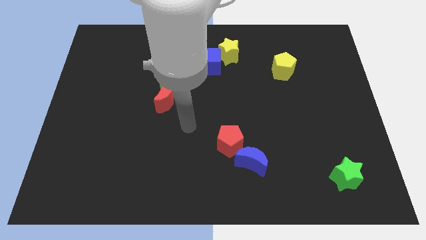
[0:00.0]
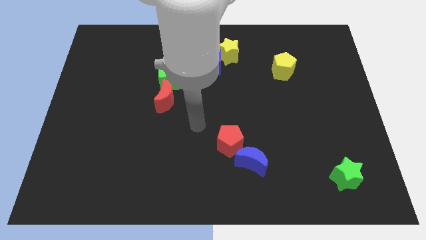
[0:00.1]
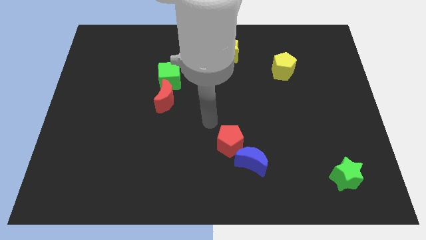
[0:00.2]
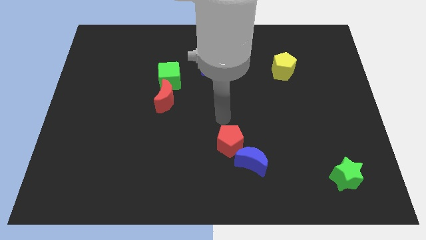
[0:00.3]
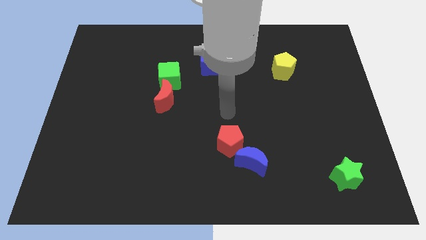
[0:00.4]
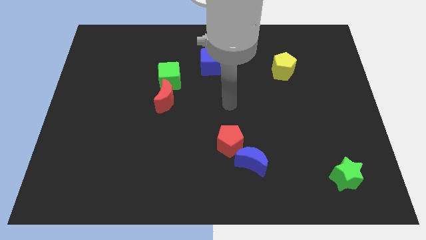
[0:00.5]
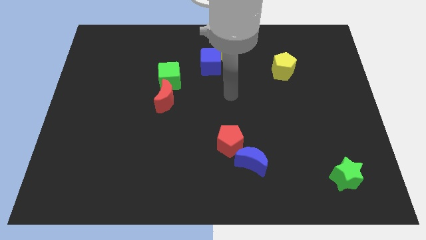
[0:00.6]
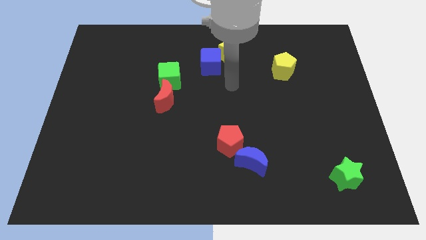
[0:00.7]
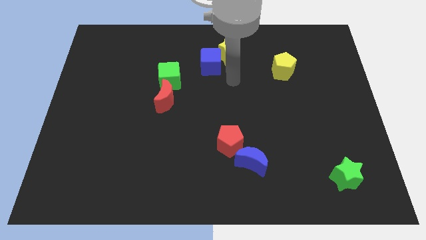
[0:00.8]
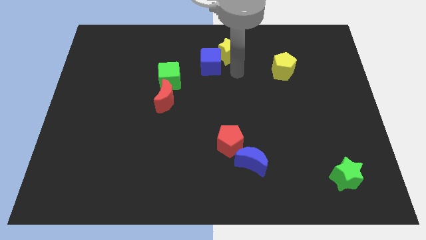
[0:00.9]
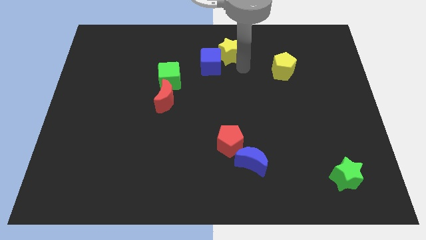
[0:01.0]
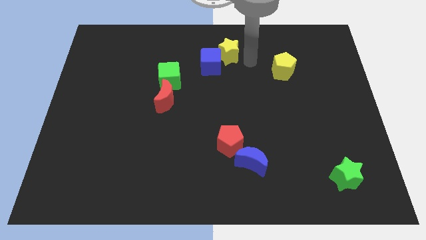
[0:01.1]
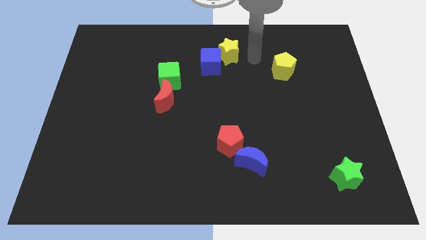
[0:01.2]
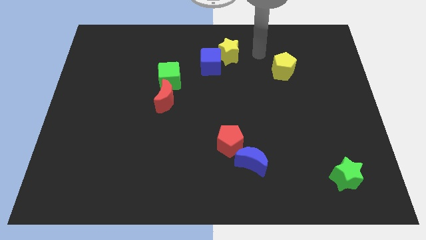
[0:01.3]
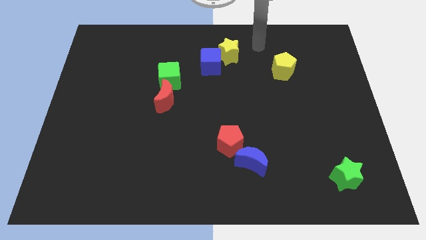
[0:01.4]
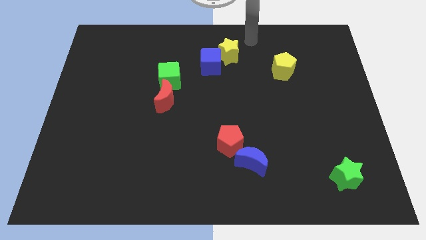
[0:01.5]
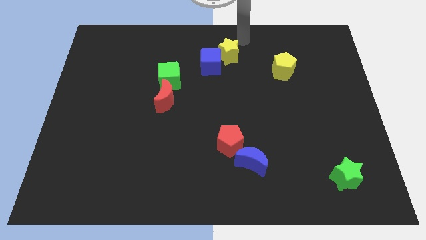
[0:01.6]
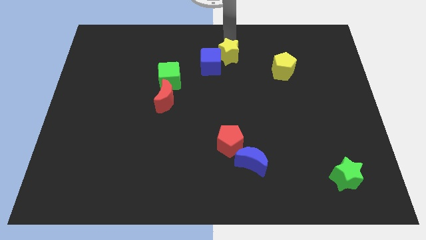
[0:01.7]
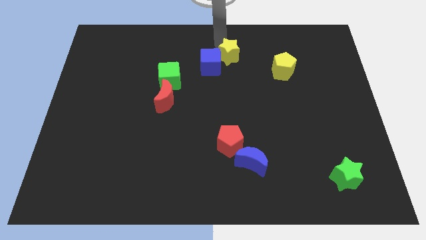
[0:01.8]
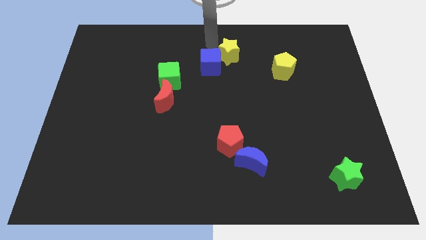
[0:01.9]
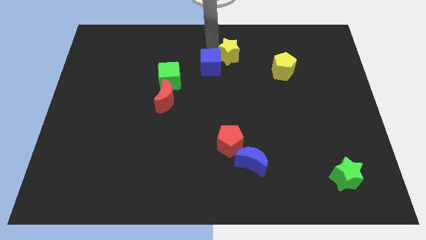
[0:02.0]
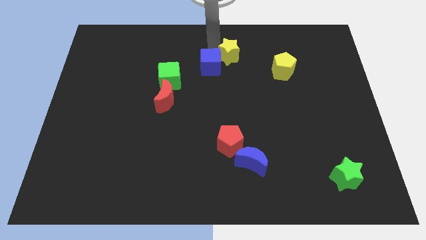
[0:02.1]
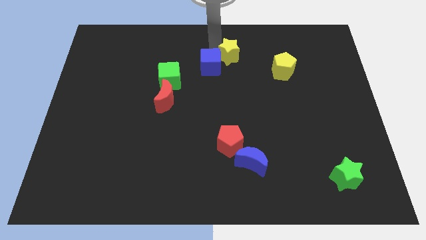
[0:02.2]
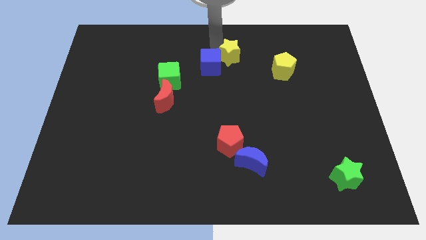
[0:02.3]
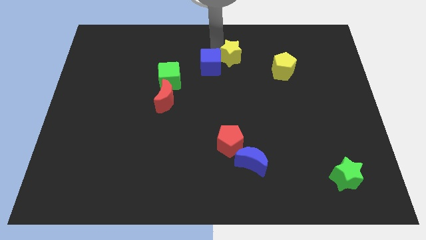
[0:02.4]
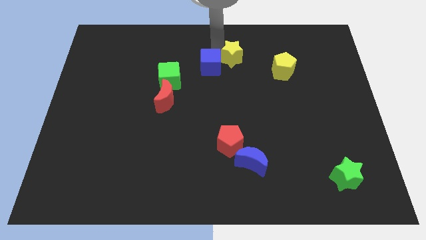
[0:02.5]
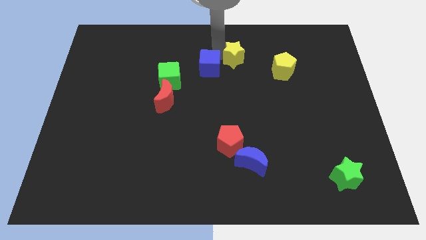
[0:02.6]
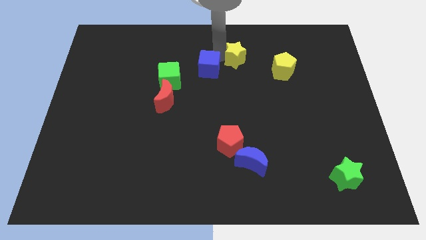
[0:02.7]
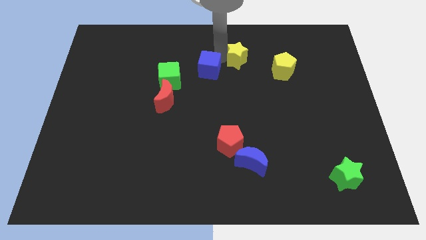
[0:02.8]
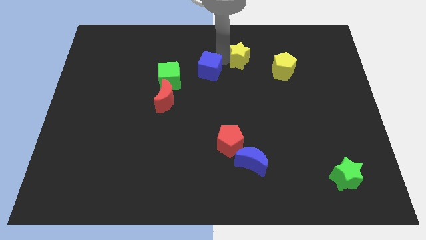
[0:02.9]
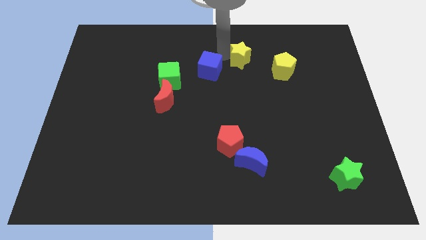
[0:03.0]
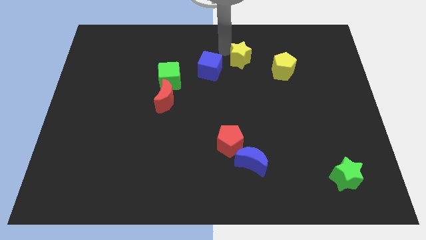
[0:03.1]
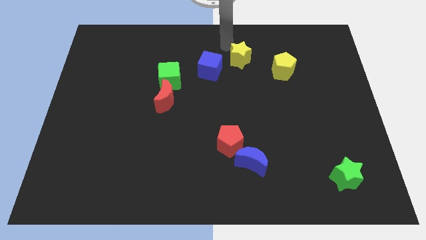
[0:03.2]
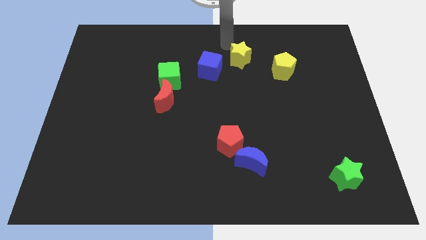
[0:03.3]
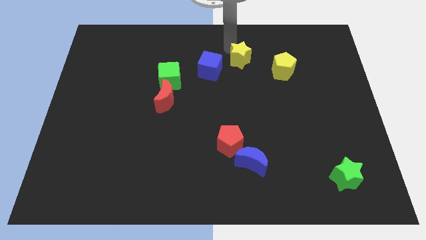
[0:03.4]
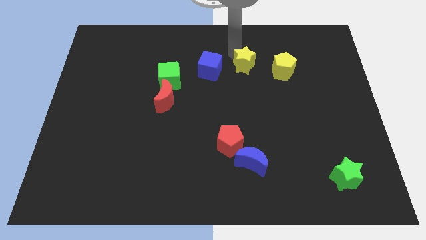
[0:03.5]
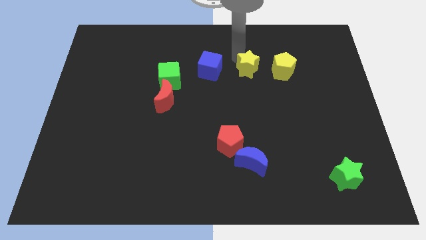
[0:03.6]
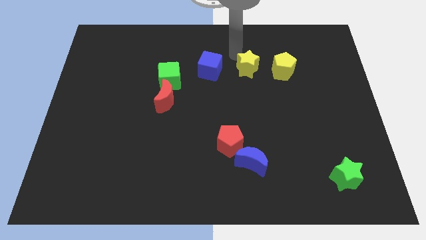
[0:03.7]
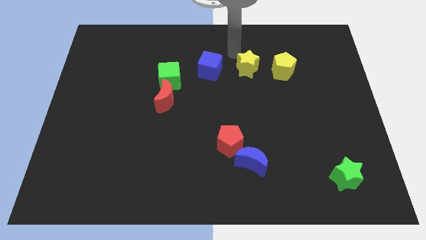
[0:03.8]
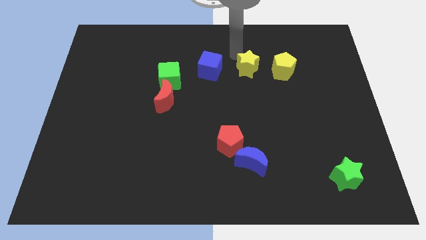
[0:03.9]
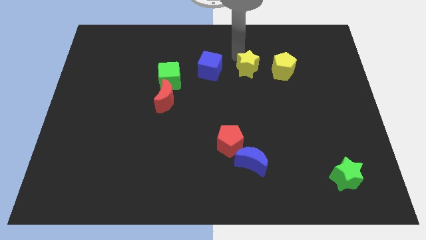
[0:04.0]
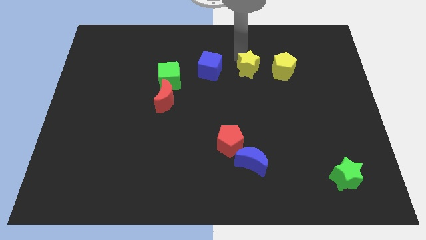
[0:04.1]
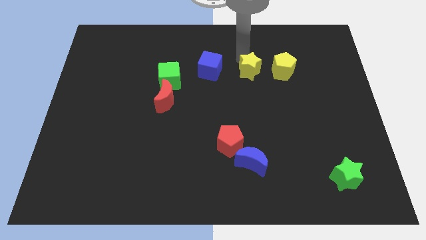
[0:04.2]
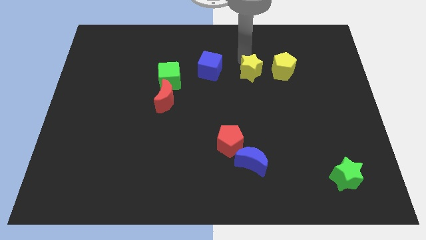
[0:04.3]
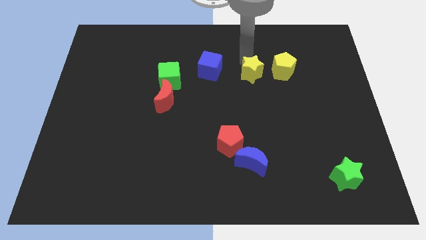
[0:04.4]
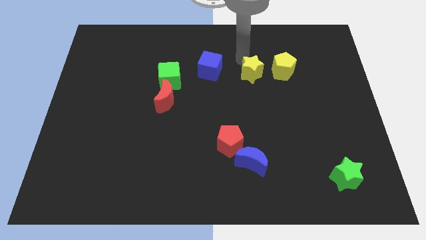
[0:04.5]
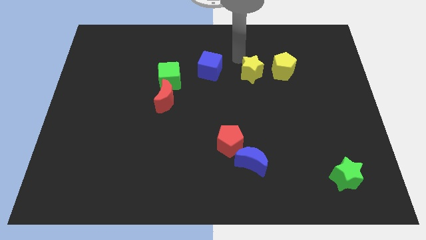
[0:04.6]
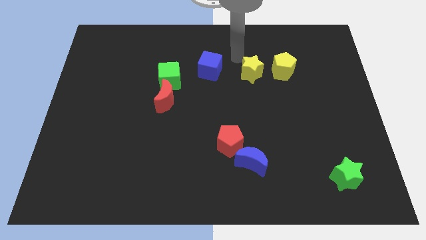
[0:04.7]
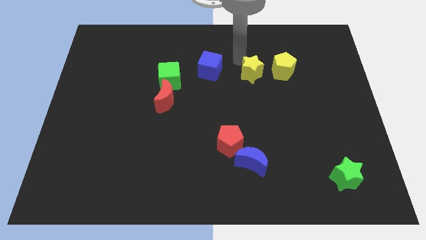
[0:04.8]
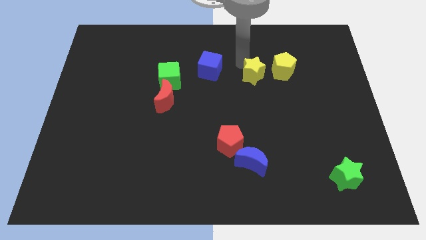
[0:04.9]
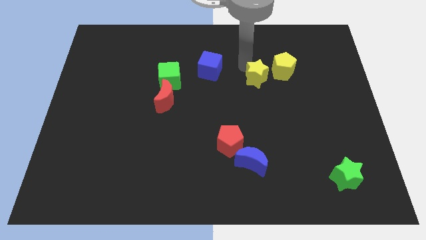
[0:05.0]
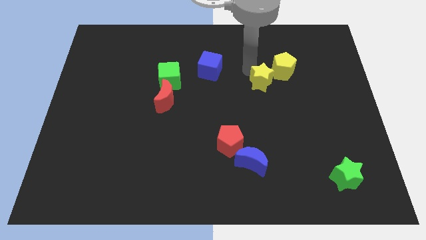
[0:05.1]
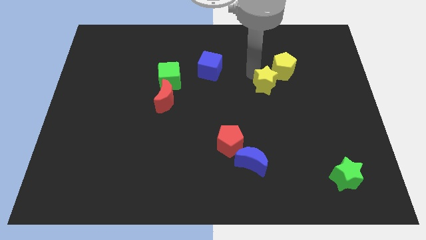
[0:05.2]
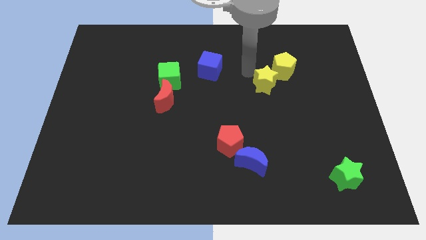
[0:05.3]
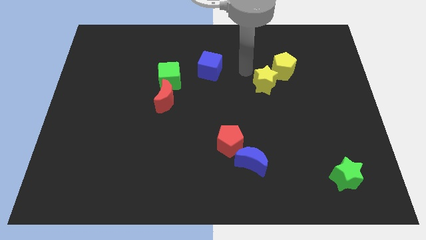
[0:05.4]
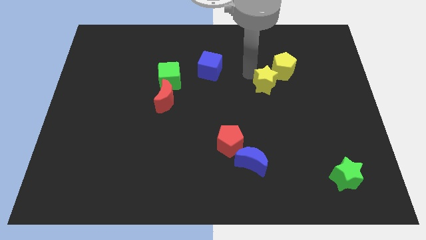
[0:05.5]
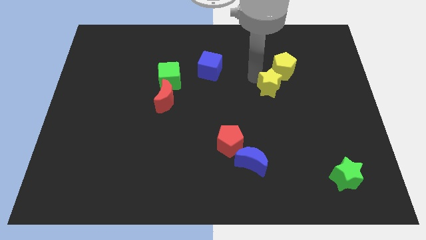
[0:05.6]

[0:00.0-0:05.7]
slide the yellow star to the bottom side of the yellow pentagon

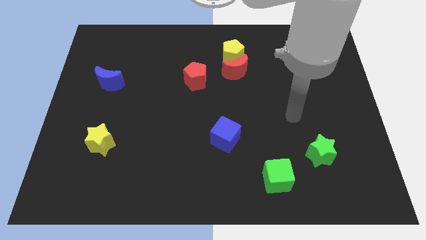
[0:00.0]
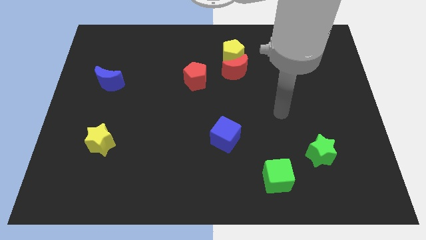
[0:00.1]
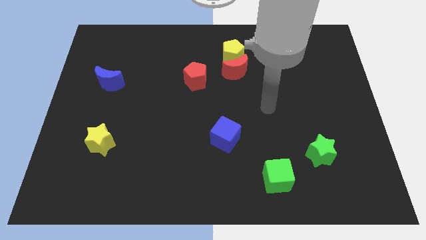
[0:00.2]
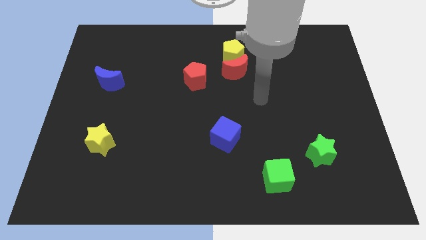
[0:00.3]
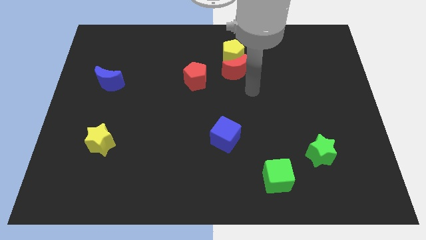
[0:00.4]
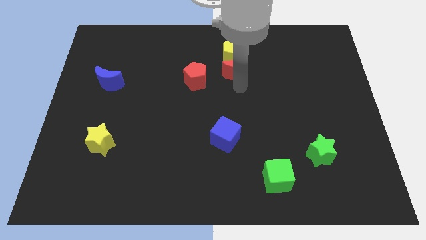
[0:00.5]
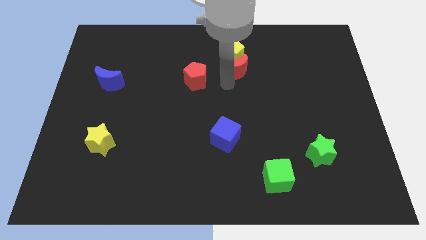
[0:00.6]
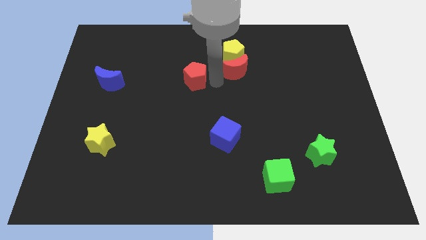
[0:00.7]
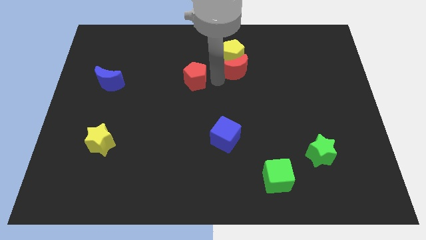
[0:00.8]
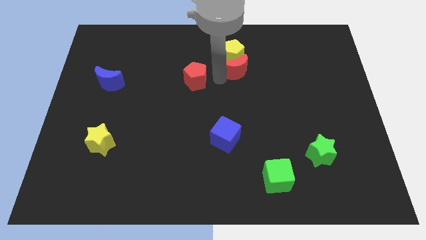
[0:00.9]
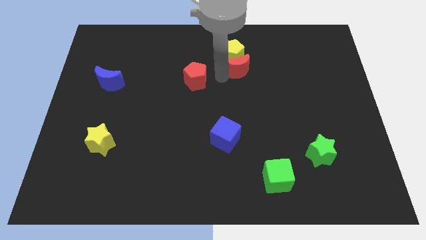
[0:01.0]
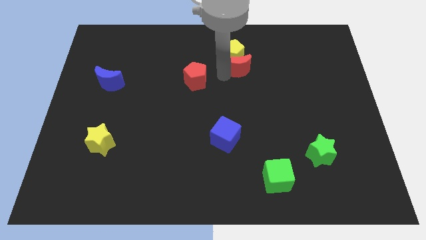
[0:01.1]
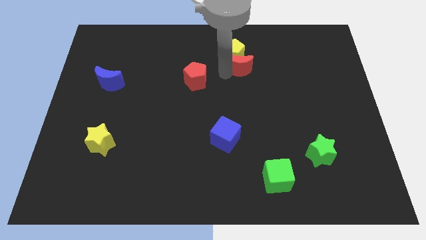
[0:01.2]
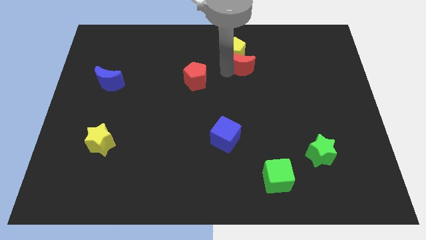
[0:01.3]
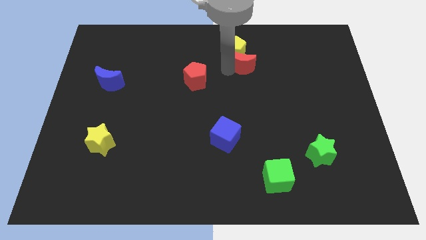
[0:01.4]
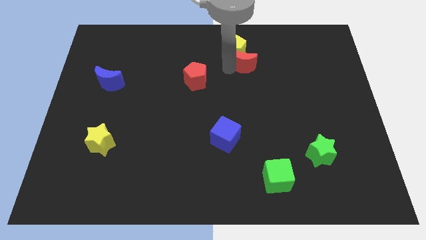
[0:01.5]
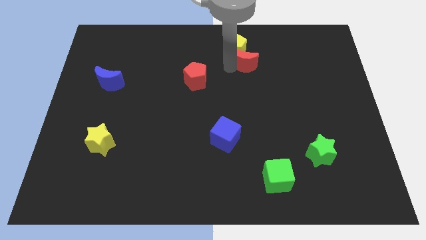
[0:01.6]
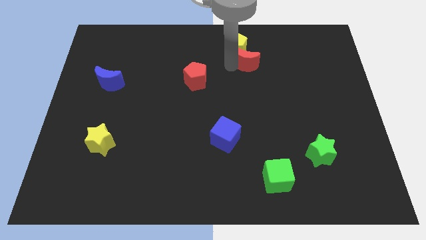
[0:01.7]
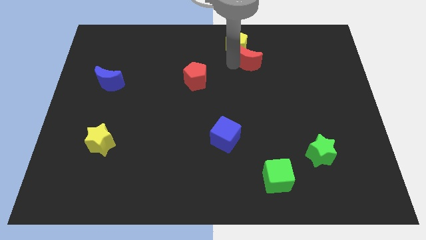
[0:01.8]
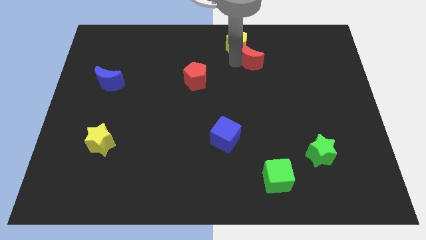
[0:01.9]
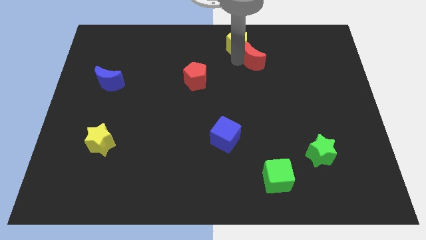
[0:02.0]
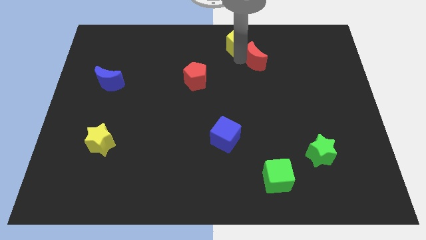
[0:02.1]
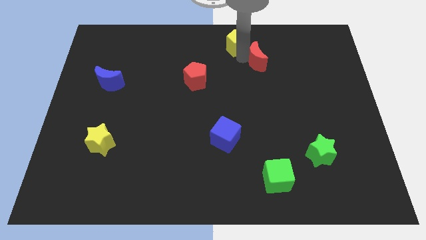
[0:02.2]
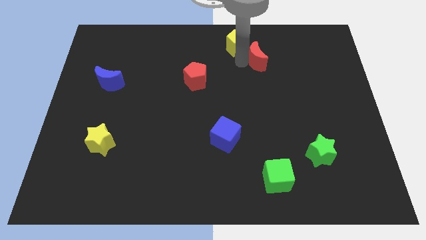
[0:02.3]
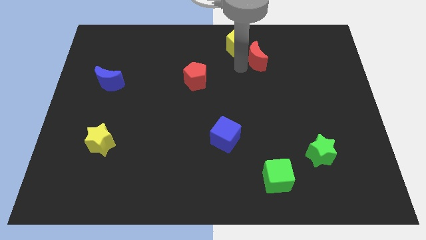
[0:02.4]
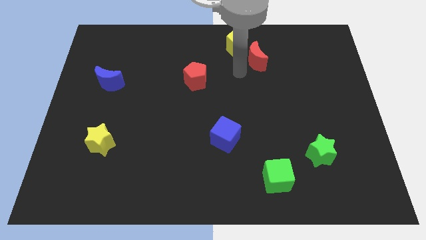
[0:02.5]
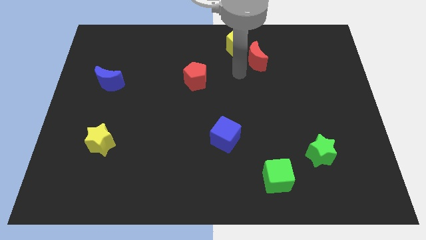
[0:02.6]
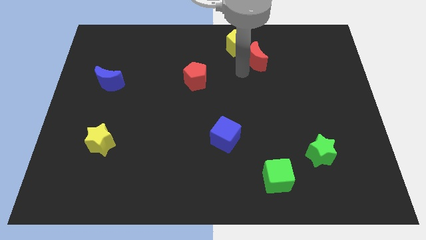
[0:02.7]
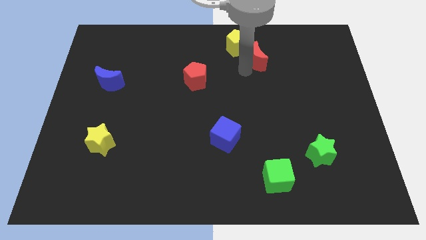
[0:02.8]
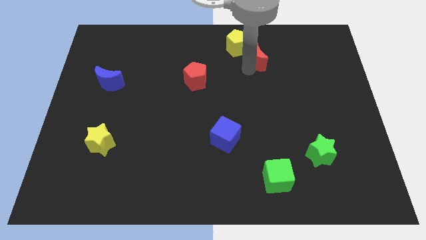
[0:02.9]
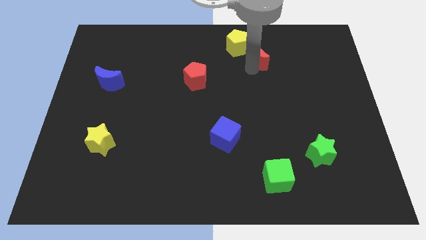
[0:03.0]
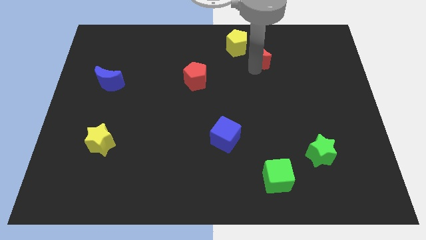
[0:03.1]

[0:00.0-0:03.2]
move the red moon just right of the yellow pentagon
